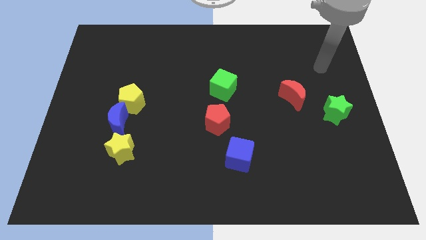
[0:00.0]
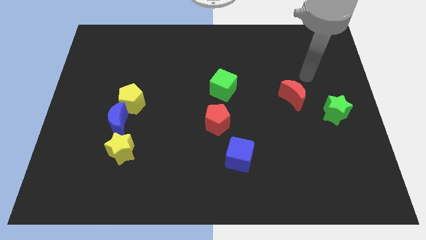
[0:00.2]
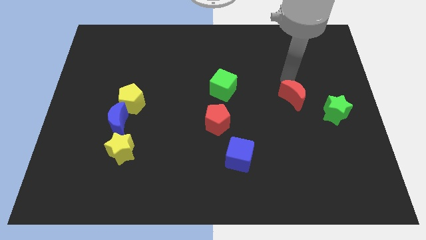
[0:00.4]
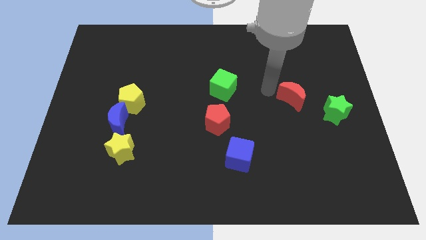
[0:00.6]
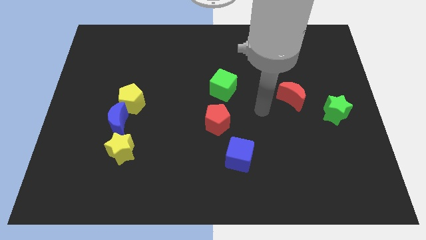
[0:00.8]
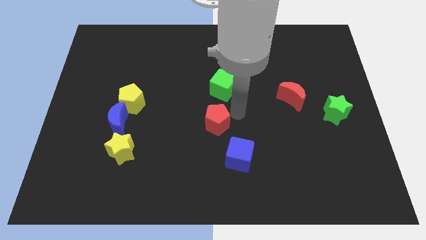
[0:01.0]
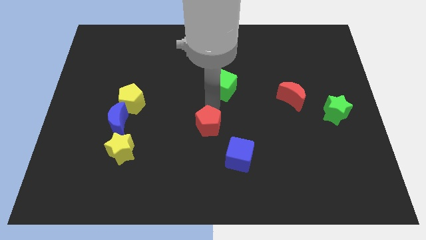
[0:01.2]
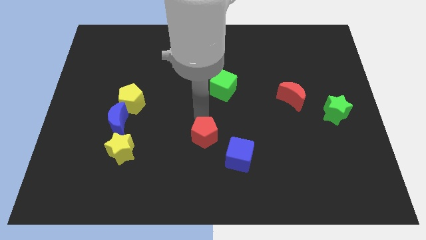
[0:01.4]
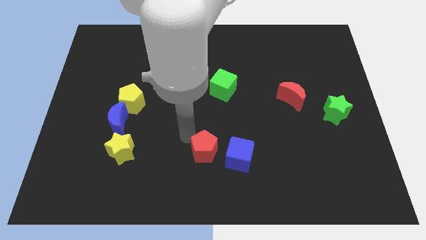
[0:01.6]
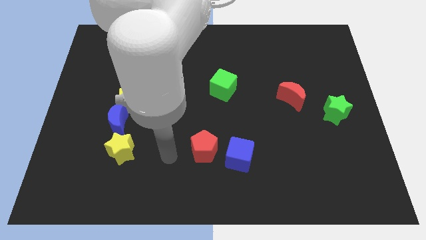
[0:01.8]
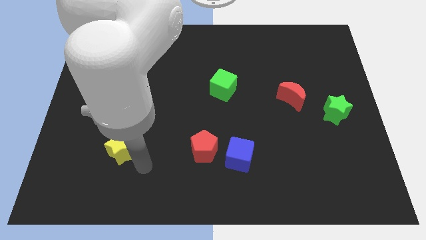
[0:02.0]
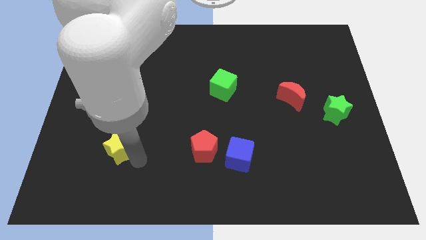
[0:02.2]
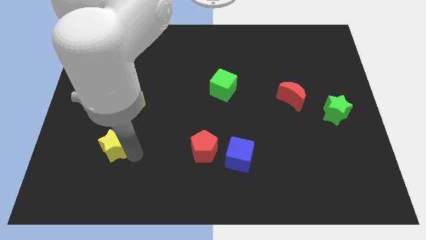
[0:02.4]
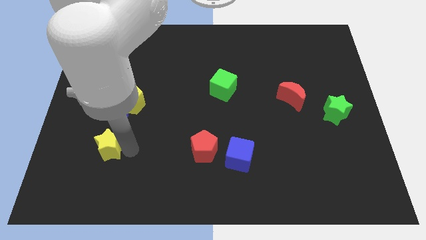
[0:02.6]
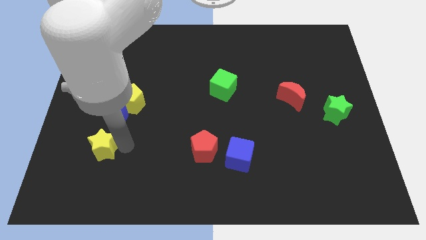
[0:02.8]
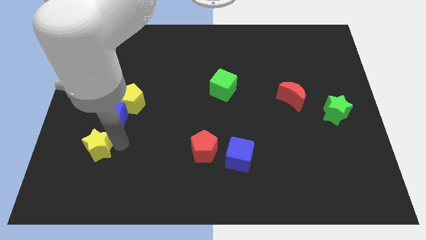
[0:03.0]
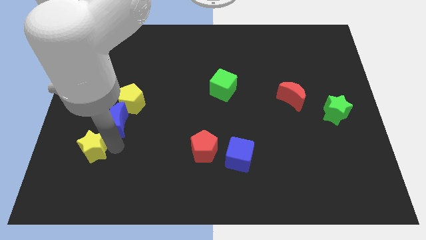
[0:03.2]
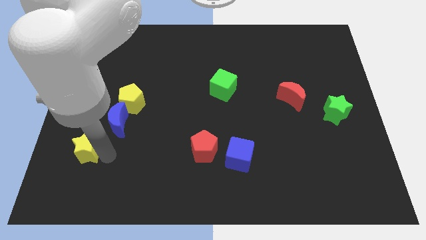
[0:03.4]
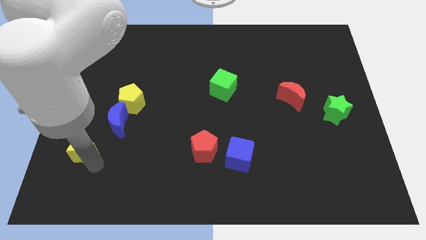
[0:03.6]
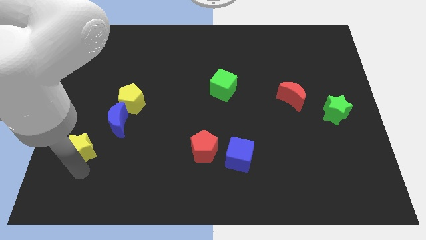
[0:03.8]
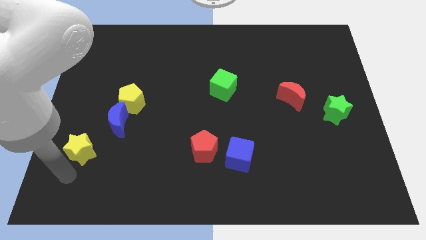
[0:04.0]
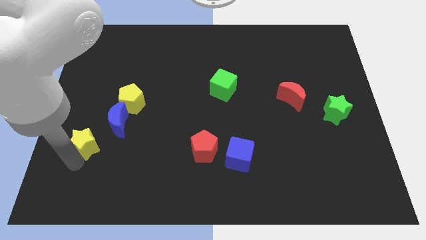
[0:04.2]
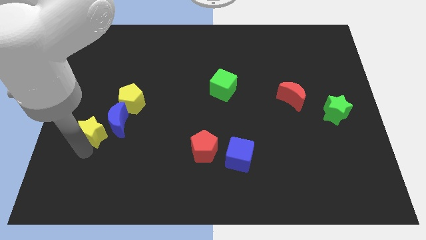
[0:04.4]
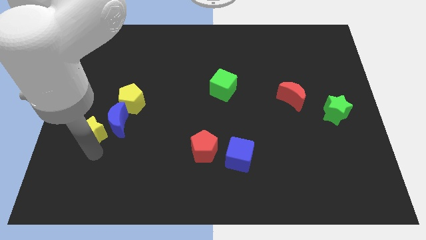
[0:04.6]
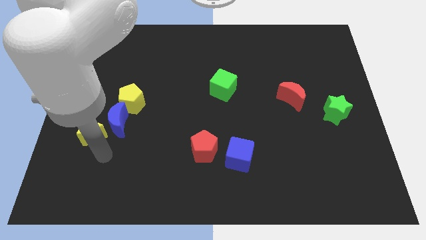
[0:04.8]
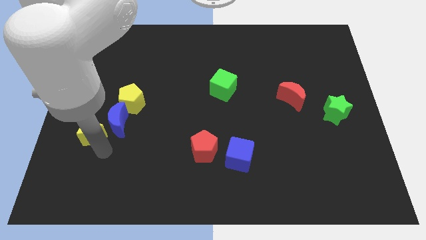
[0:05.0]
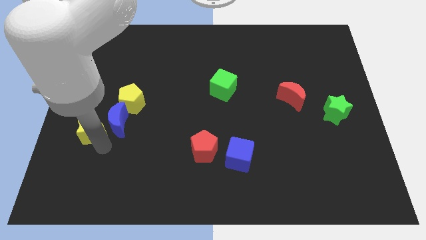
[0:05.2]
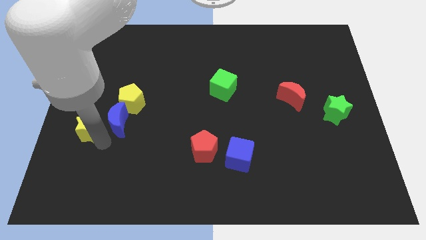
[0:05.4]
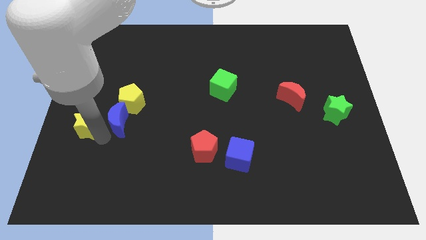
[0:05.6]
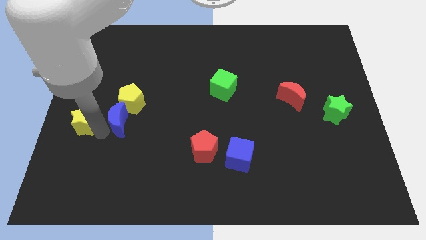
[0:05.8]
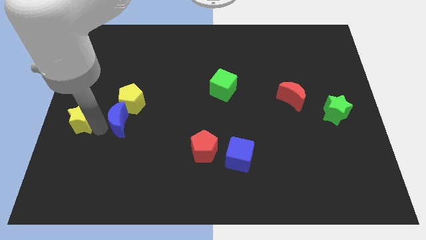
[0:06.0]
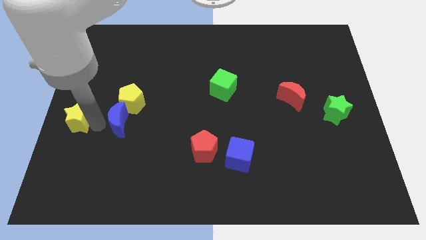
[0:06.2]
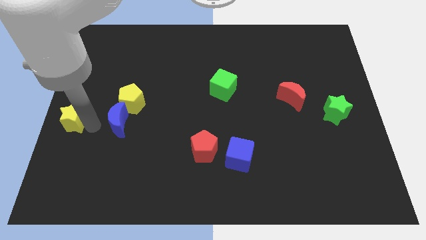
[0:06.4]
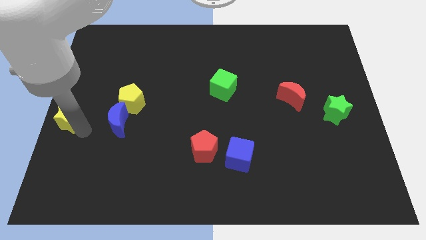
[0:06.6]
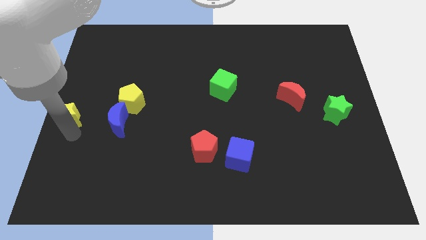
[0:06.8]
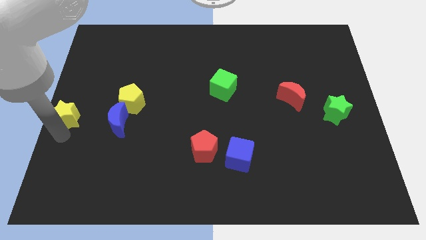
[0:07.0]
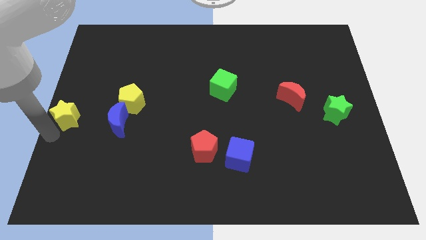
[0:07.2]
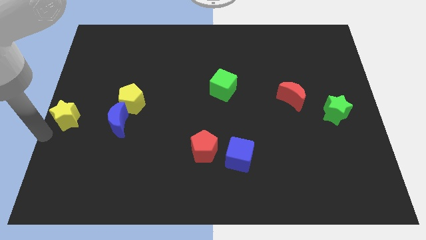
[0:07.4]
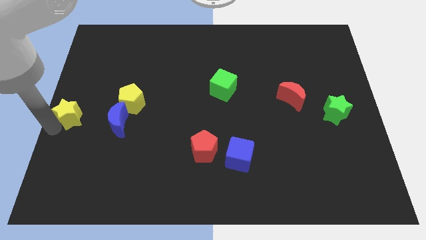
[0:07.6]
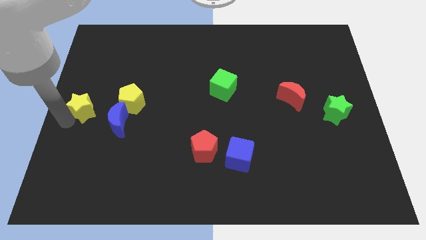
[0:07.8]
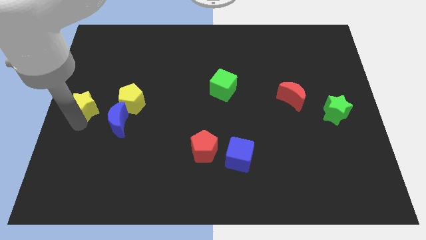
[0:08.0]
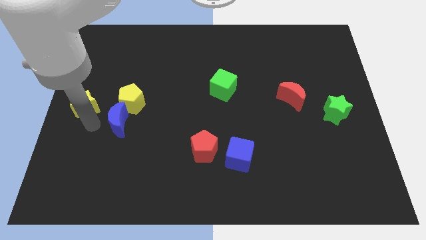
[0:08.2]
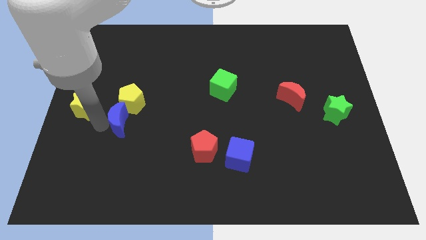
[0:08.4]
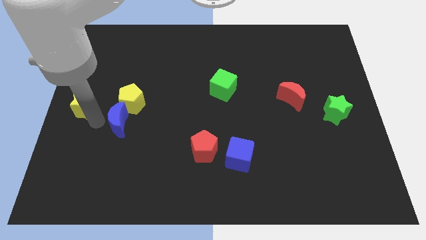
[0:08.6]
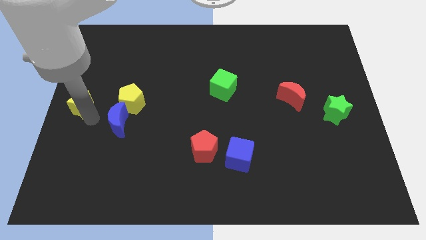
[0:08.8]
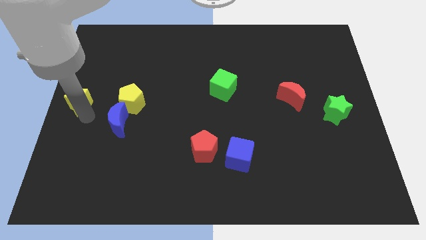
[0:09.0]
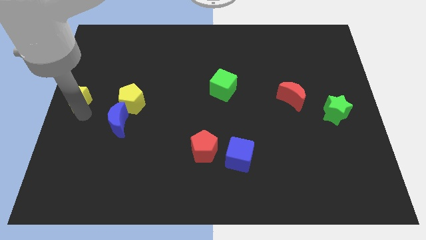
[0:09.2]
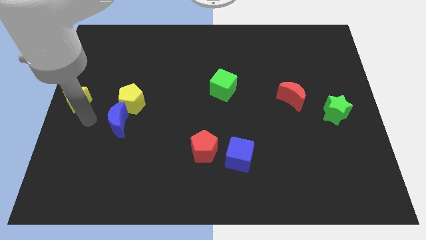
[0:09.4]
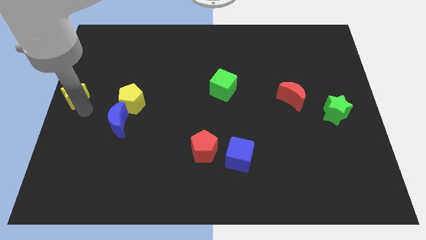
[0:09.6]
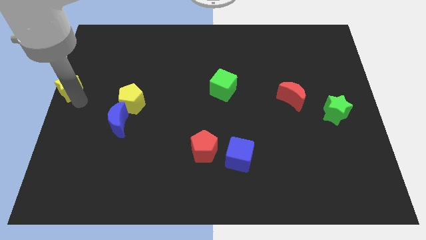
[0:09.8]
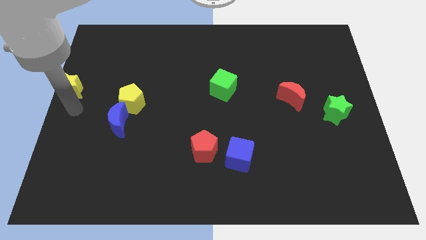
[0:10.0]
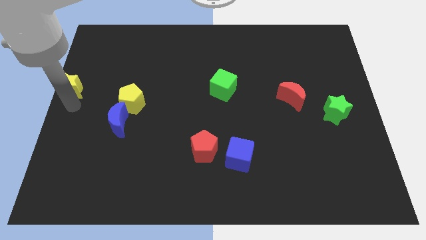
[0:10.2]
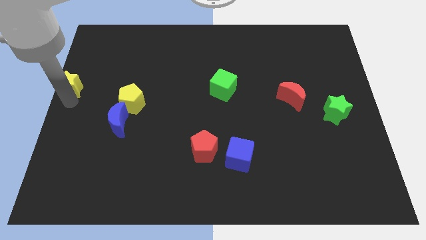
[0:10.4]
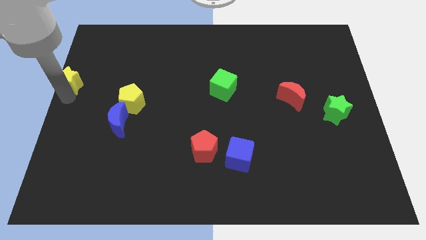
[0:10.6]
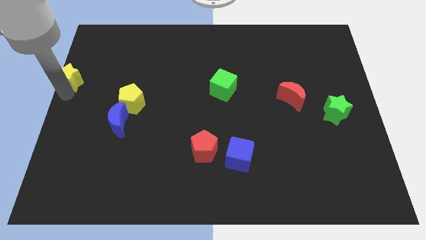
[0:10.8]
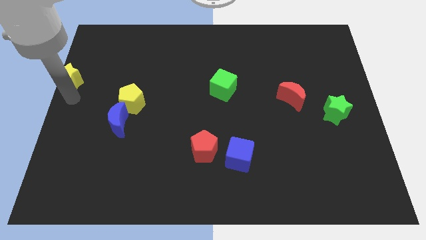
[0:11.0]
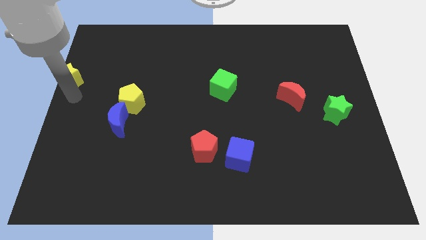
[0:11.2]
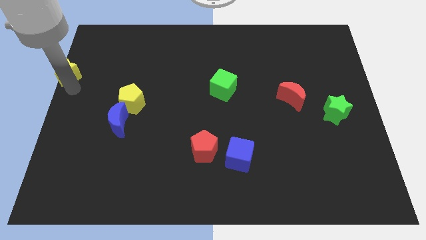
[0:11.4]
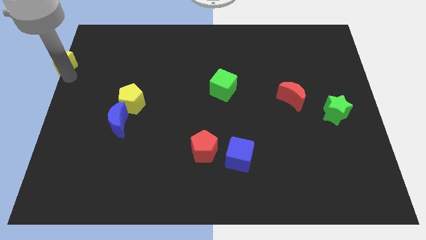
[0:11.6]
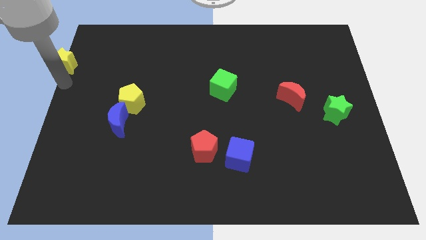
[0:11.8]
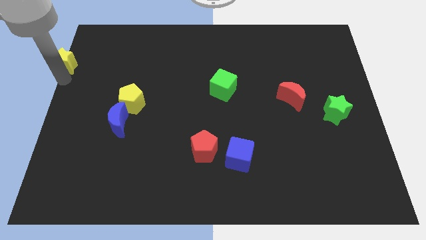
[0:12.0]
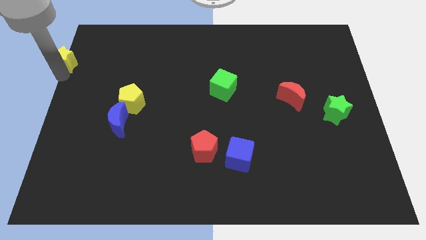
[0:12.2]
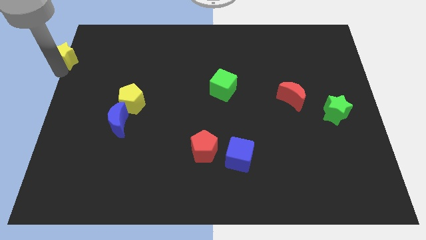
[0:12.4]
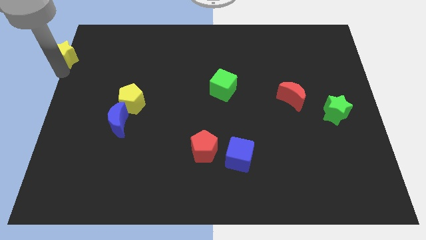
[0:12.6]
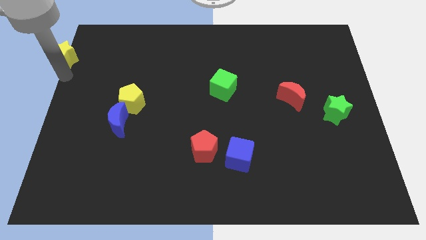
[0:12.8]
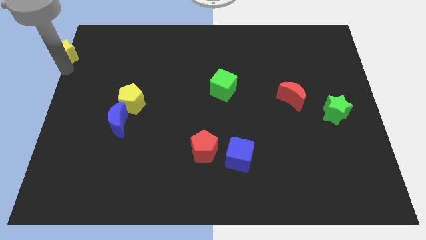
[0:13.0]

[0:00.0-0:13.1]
move the yellow star to the upper left corner

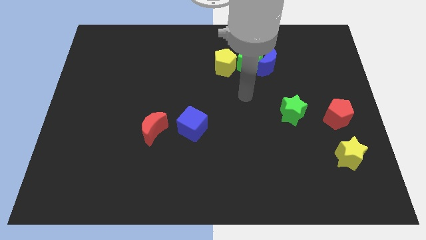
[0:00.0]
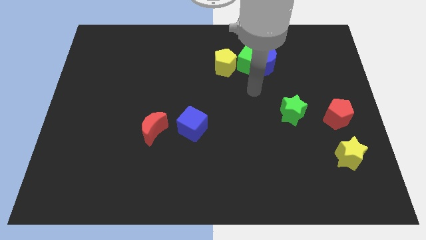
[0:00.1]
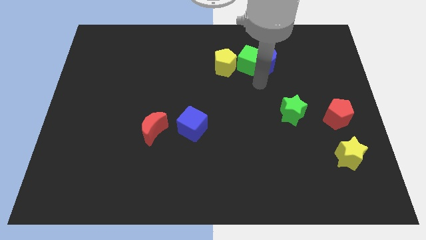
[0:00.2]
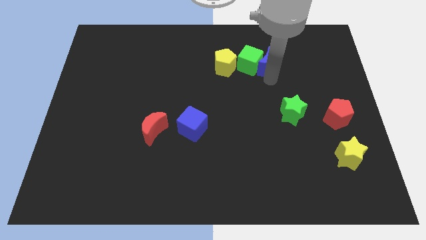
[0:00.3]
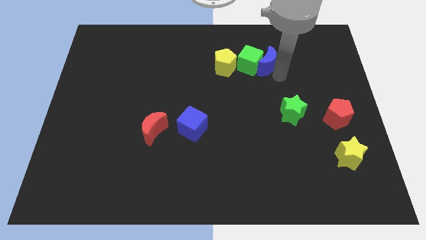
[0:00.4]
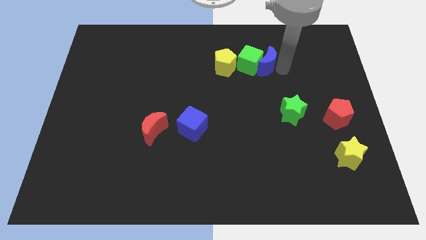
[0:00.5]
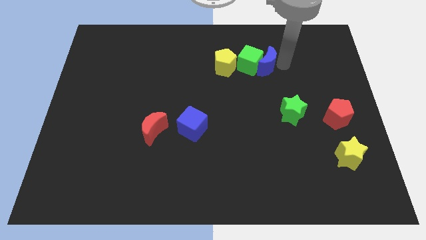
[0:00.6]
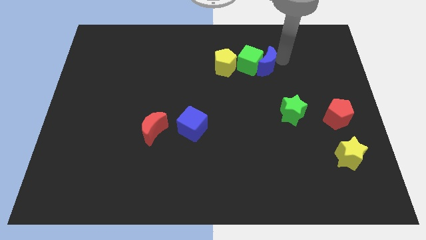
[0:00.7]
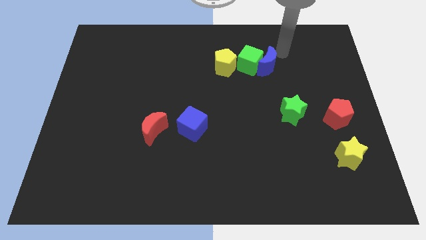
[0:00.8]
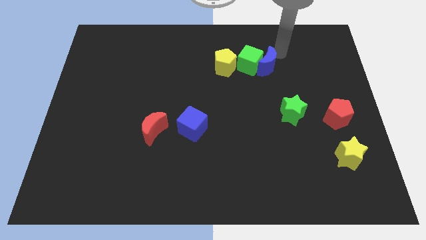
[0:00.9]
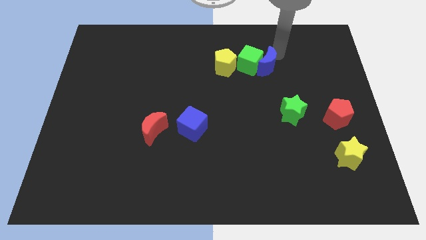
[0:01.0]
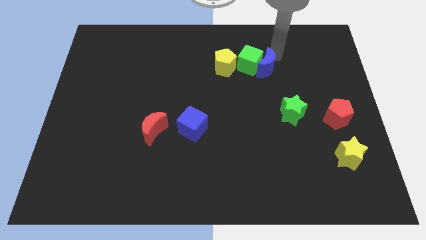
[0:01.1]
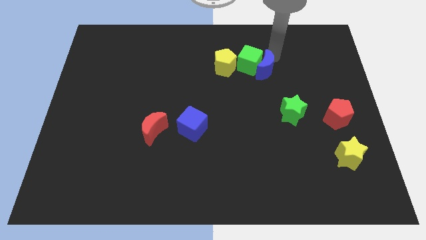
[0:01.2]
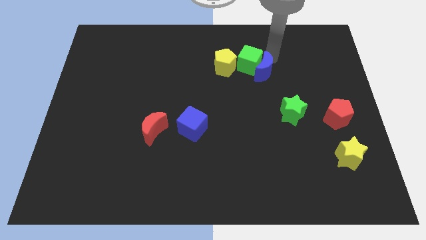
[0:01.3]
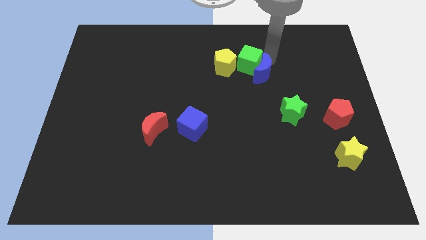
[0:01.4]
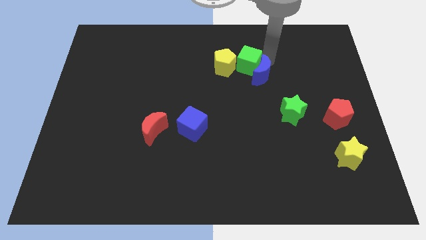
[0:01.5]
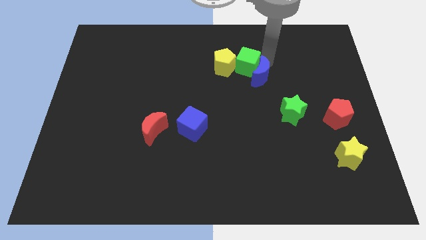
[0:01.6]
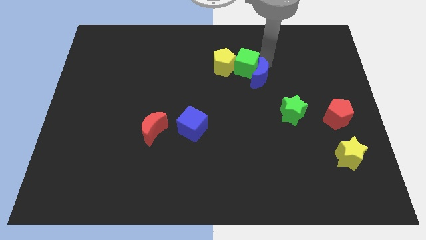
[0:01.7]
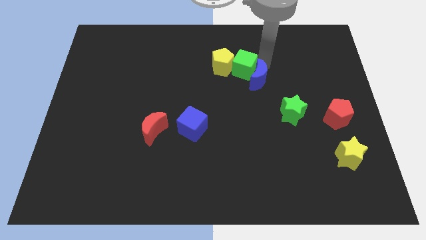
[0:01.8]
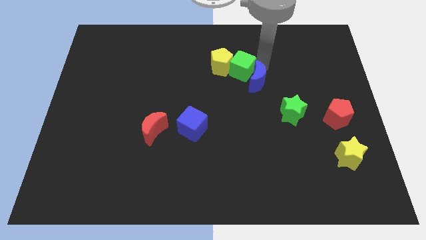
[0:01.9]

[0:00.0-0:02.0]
slide the blue moon to the middle
